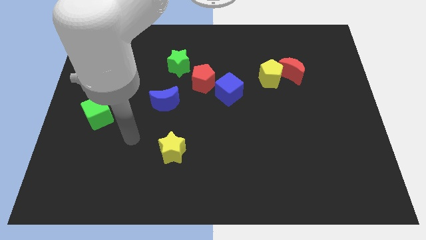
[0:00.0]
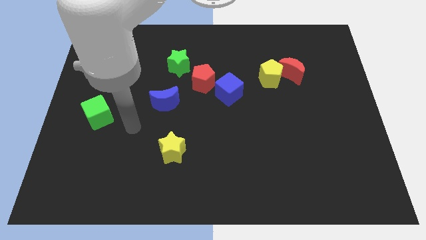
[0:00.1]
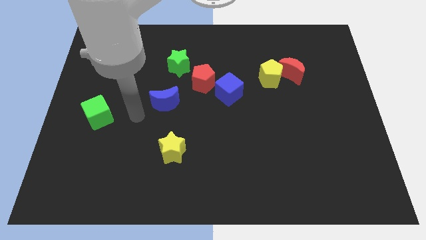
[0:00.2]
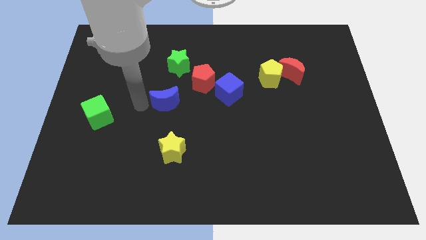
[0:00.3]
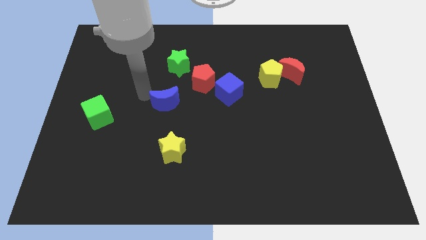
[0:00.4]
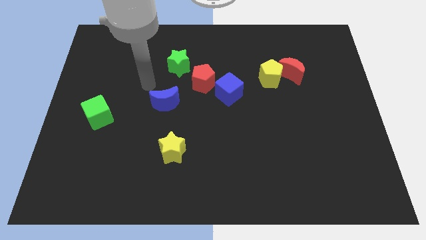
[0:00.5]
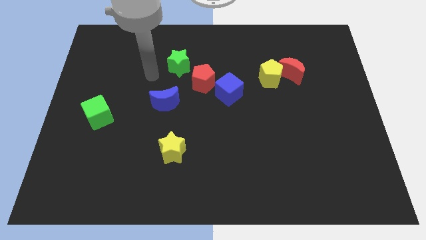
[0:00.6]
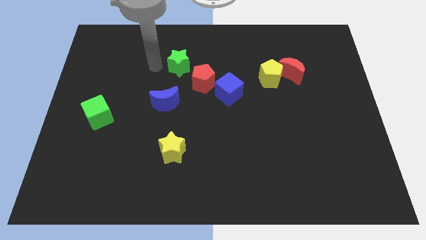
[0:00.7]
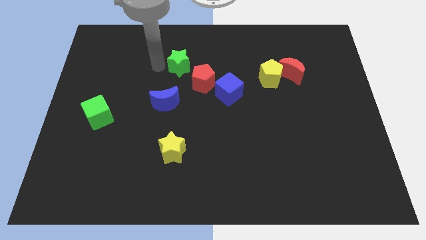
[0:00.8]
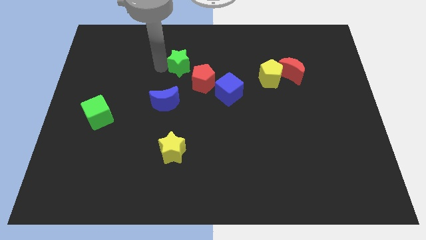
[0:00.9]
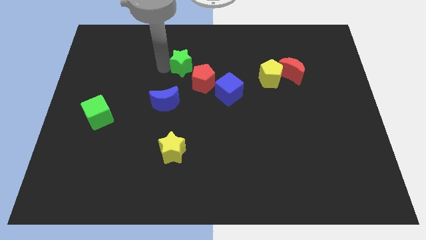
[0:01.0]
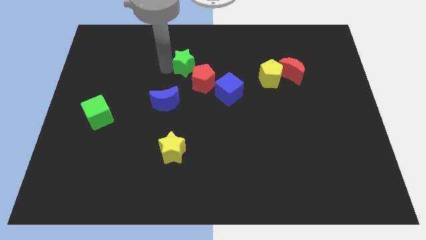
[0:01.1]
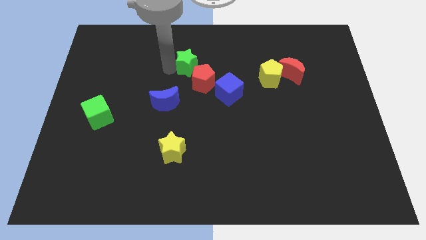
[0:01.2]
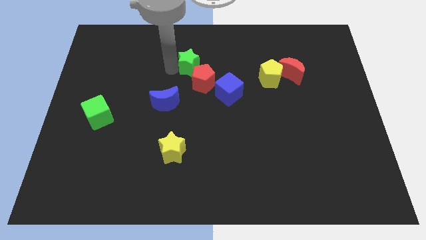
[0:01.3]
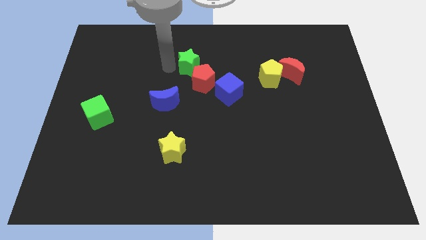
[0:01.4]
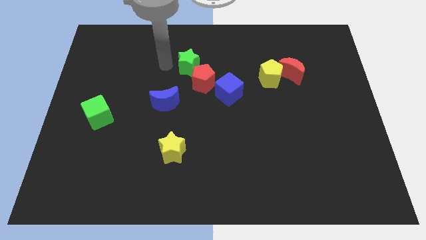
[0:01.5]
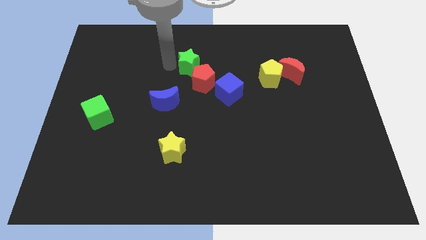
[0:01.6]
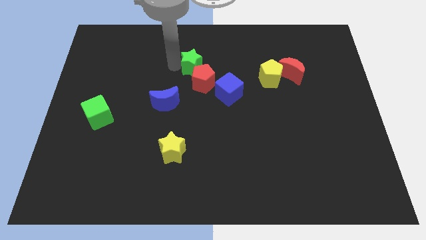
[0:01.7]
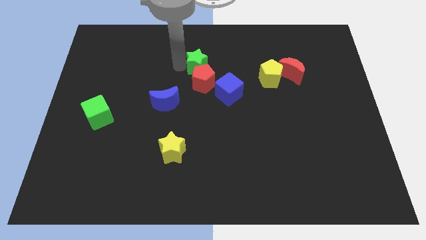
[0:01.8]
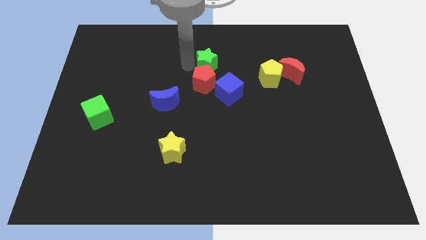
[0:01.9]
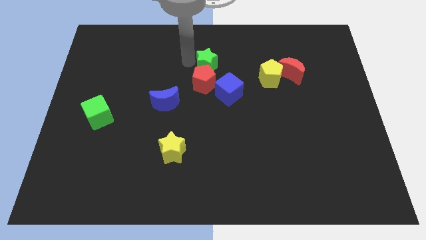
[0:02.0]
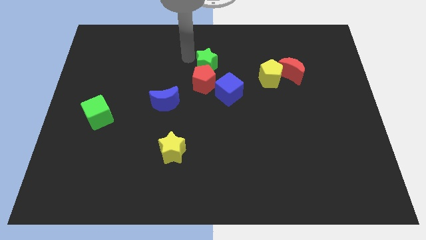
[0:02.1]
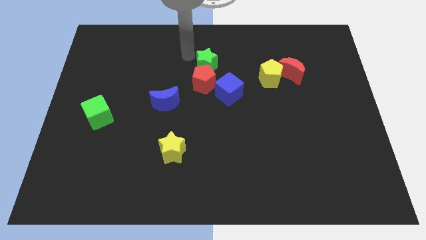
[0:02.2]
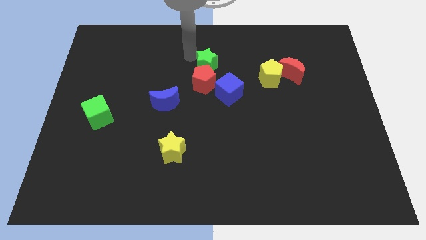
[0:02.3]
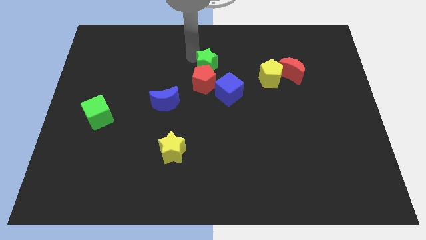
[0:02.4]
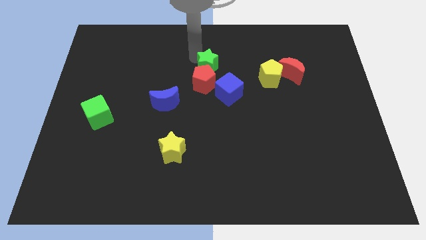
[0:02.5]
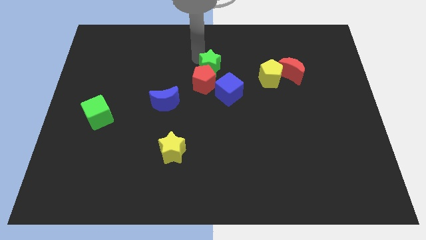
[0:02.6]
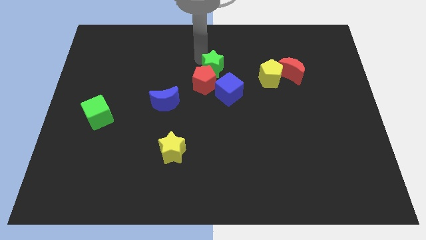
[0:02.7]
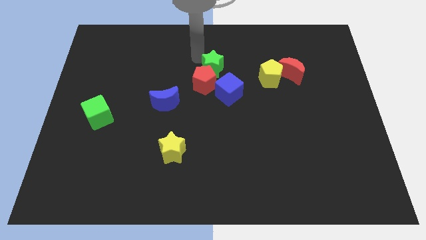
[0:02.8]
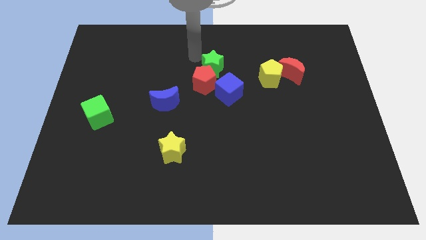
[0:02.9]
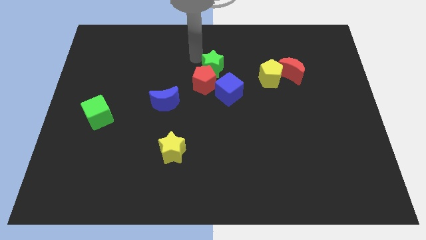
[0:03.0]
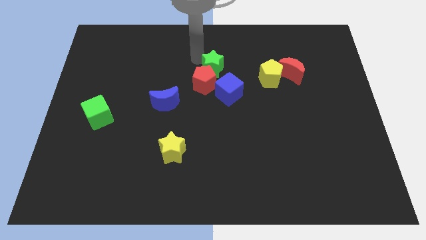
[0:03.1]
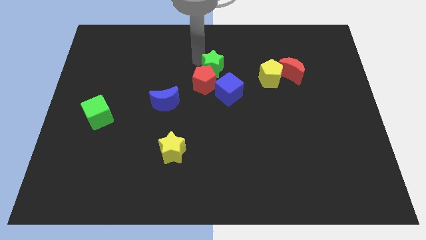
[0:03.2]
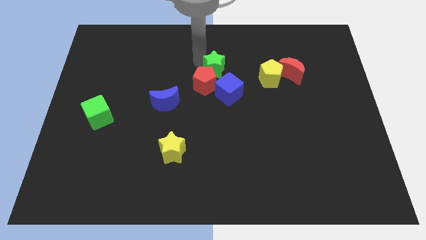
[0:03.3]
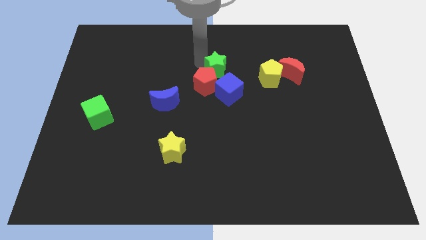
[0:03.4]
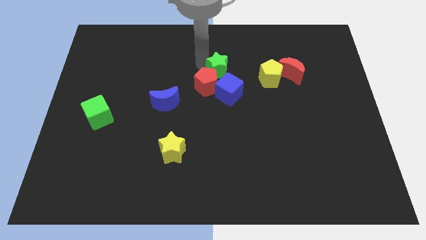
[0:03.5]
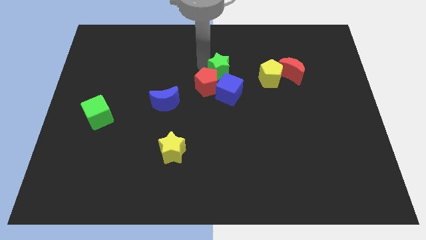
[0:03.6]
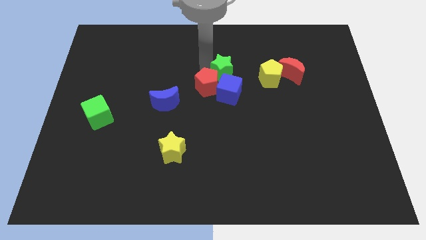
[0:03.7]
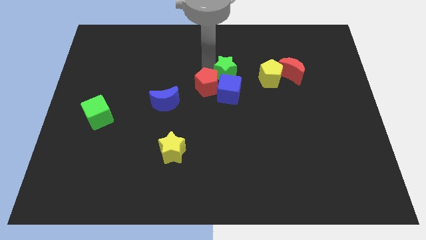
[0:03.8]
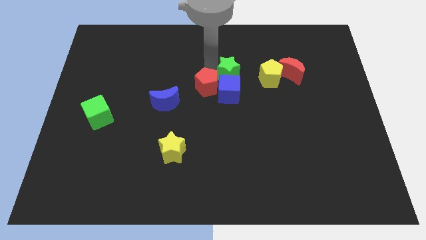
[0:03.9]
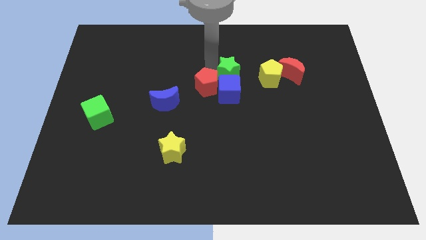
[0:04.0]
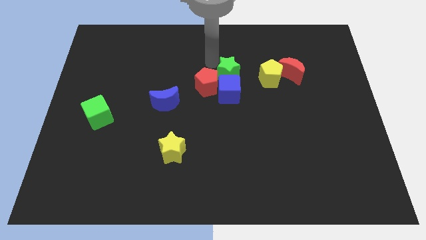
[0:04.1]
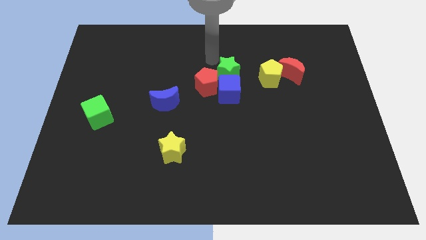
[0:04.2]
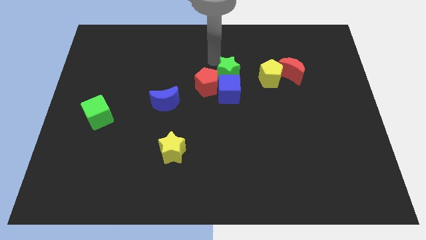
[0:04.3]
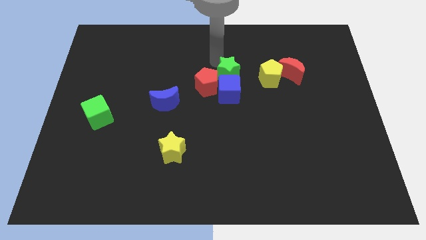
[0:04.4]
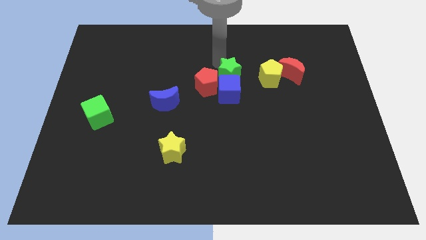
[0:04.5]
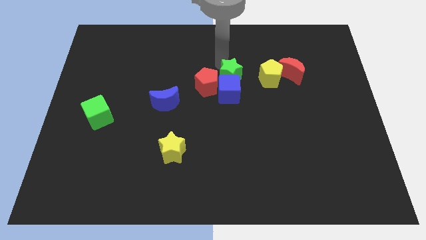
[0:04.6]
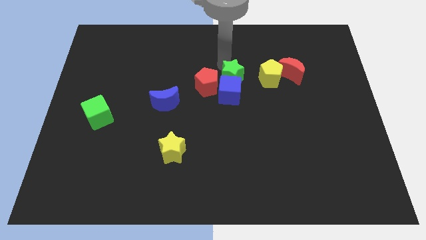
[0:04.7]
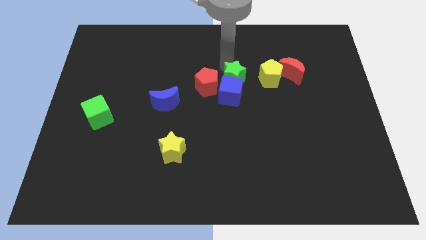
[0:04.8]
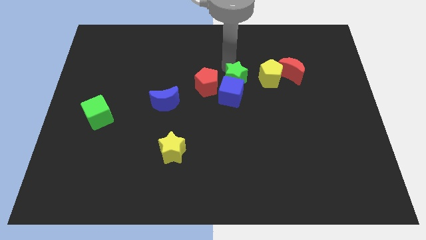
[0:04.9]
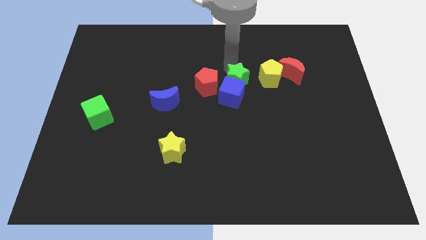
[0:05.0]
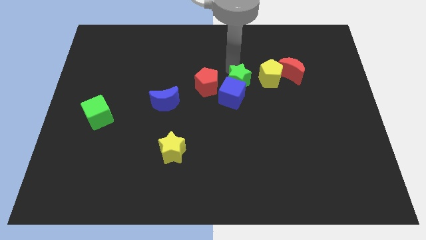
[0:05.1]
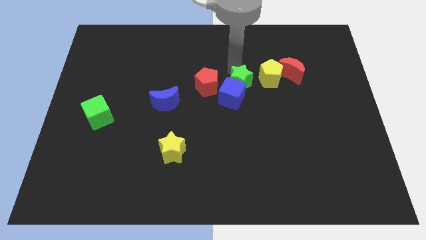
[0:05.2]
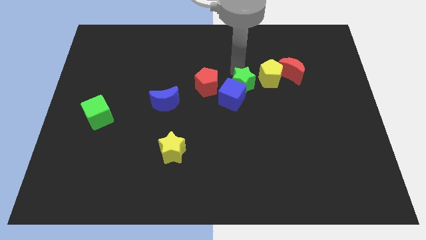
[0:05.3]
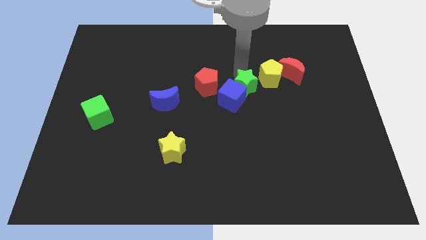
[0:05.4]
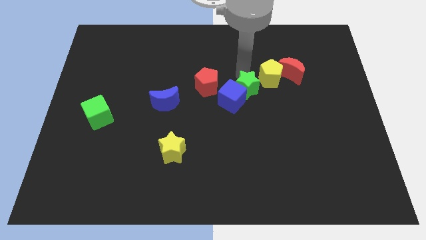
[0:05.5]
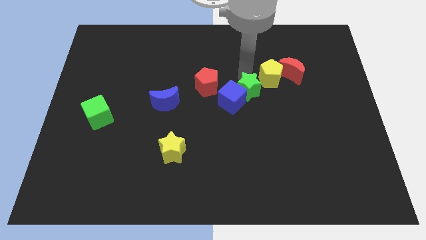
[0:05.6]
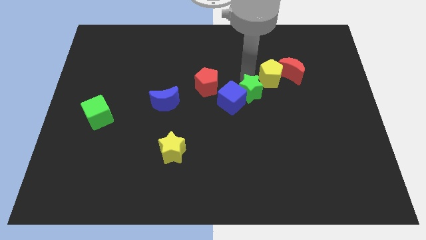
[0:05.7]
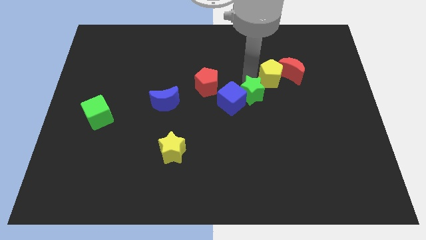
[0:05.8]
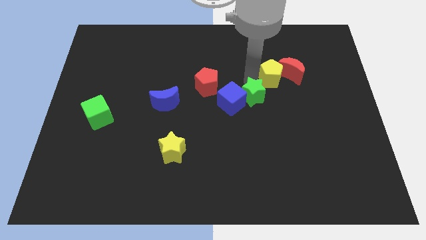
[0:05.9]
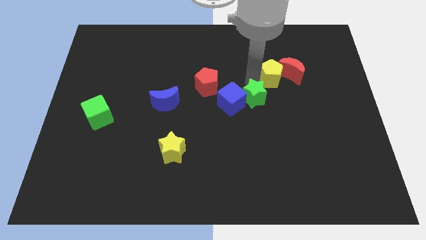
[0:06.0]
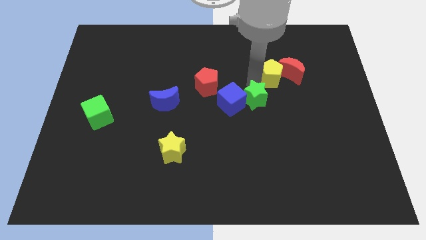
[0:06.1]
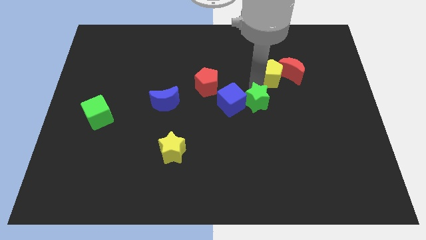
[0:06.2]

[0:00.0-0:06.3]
slide the green star diagonally down and to the right

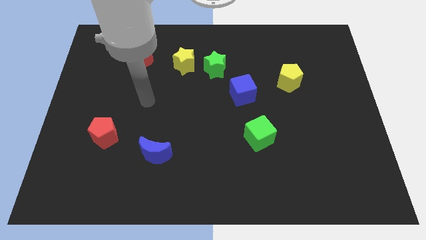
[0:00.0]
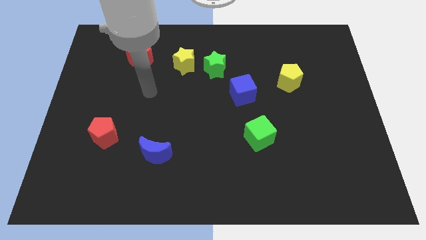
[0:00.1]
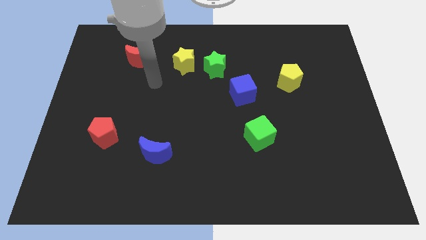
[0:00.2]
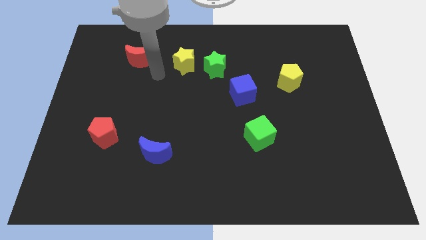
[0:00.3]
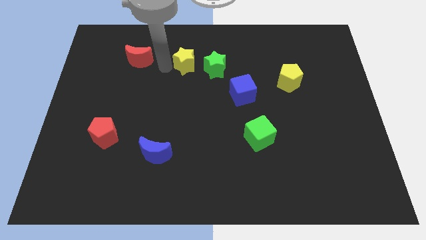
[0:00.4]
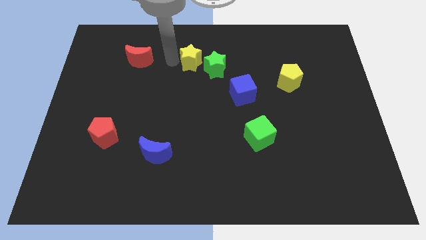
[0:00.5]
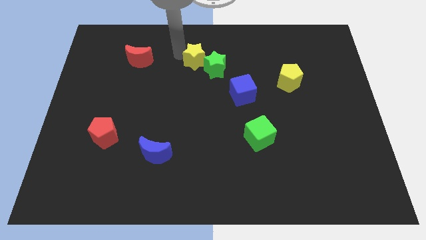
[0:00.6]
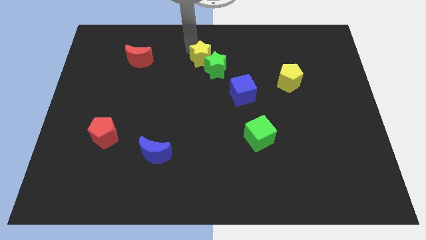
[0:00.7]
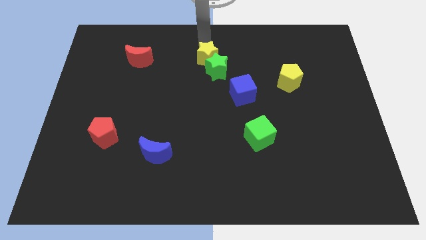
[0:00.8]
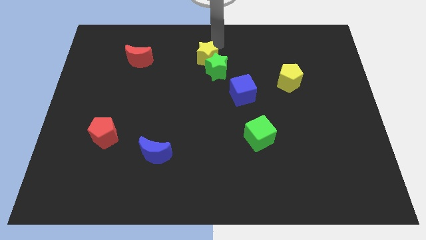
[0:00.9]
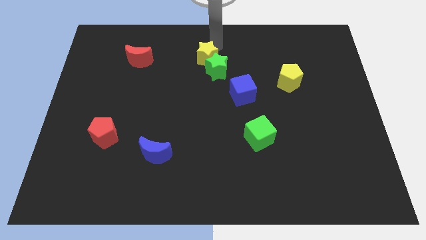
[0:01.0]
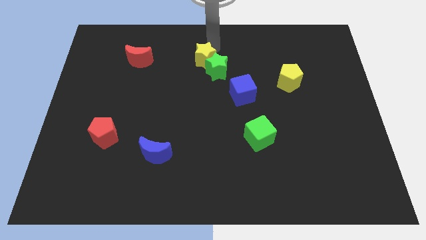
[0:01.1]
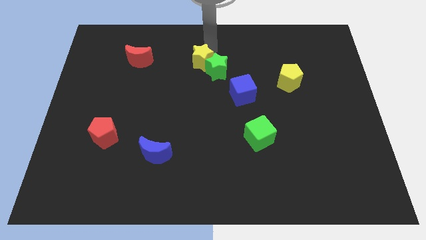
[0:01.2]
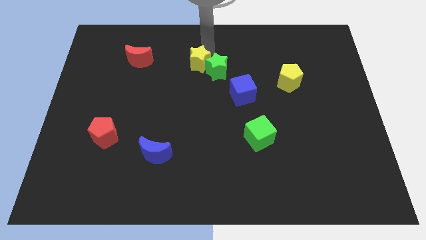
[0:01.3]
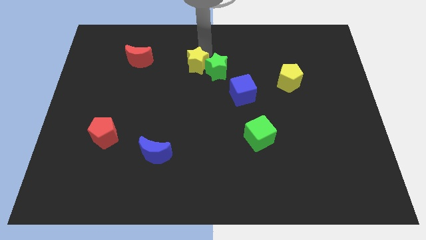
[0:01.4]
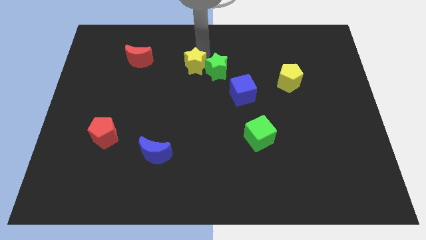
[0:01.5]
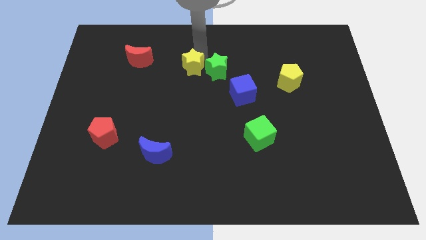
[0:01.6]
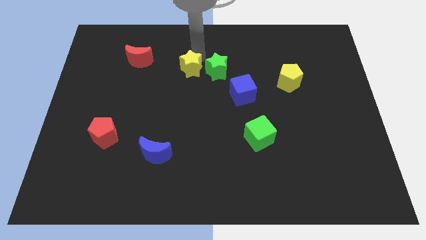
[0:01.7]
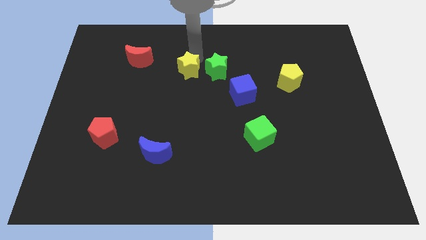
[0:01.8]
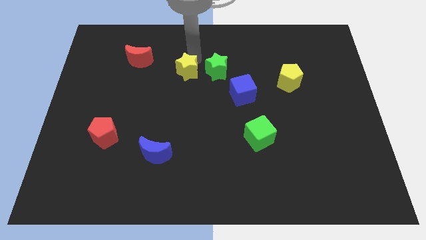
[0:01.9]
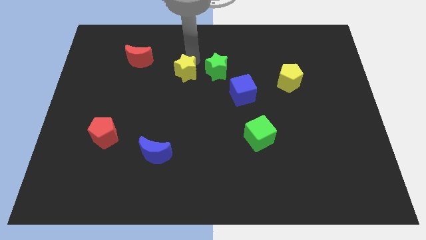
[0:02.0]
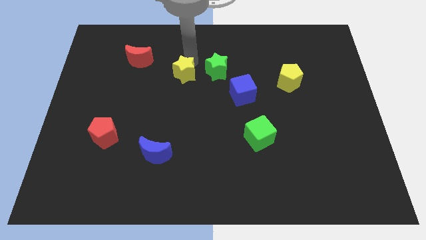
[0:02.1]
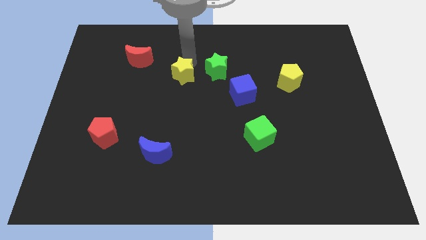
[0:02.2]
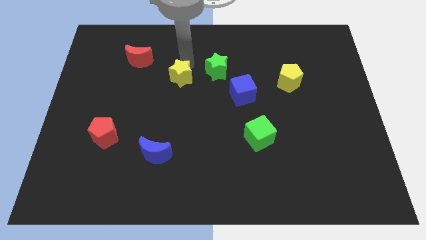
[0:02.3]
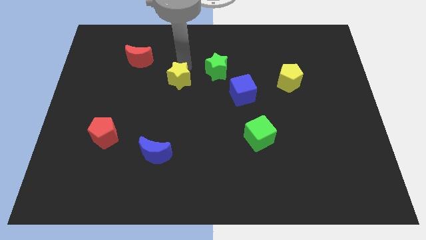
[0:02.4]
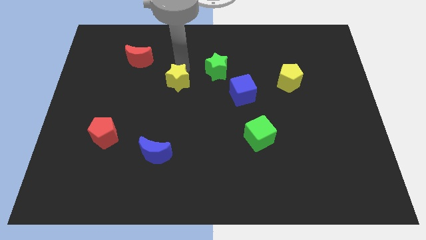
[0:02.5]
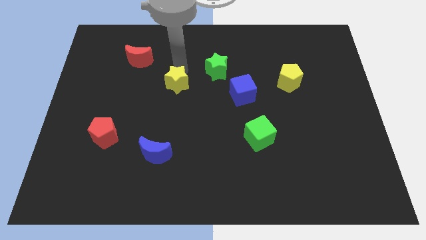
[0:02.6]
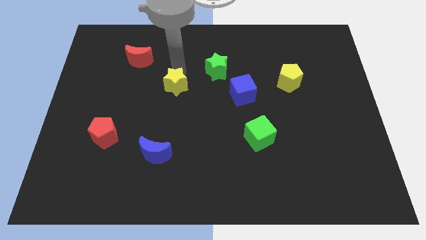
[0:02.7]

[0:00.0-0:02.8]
move the yellow star downwards a little bit
